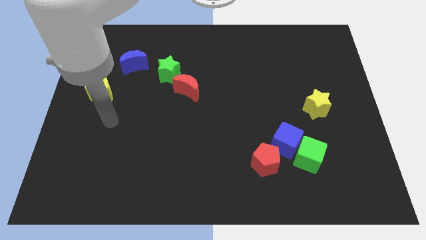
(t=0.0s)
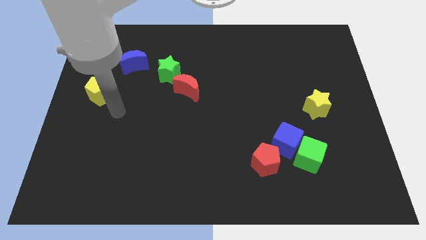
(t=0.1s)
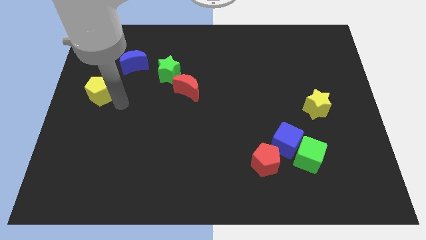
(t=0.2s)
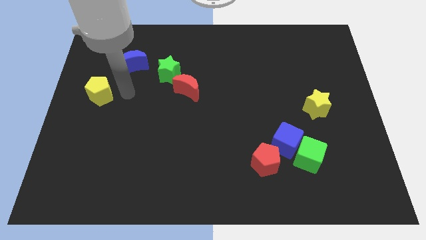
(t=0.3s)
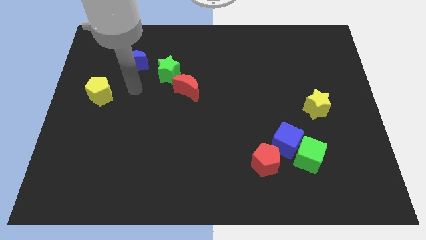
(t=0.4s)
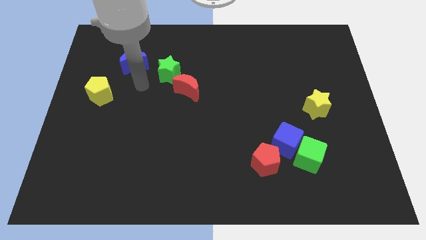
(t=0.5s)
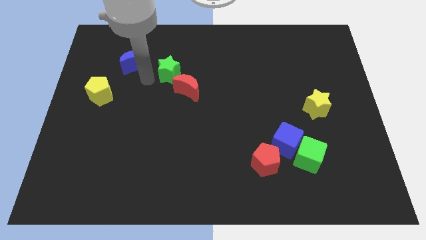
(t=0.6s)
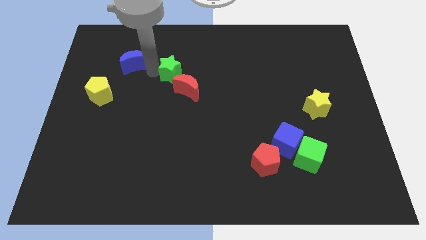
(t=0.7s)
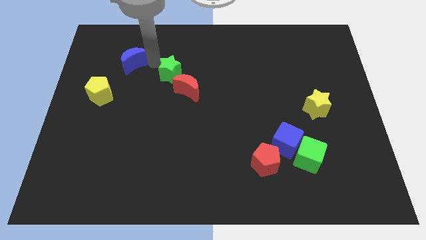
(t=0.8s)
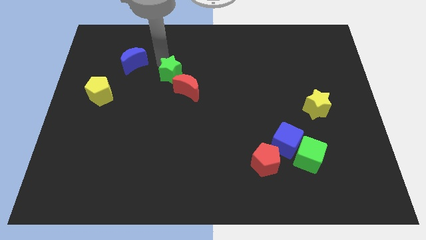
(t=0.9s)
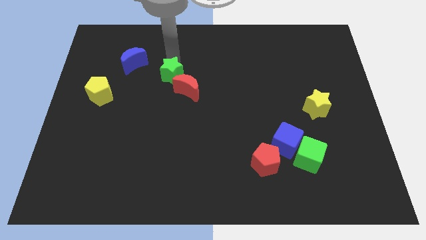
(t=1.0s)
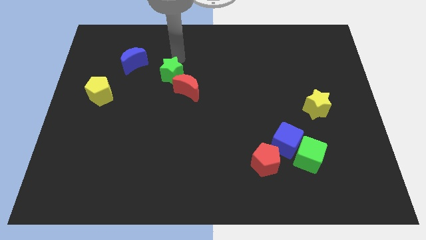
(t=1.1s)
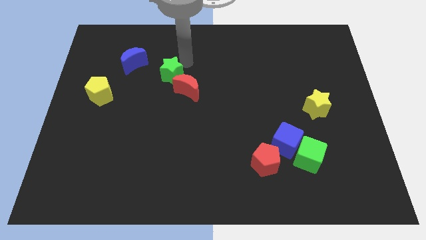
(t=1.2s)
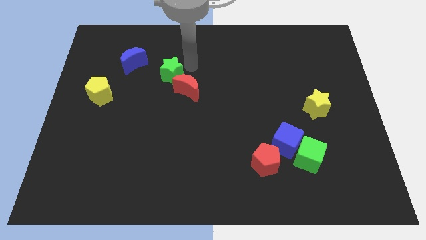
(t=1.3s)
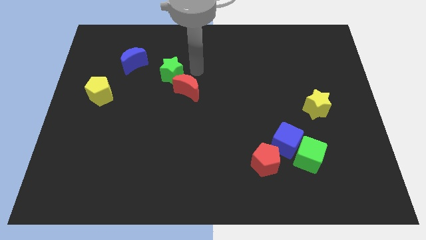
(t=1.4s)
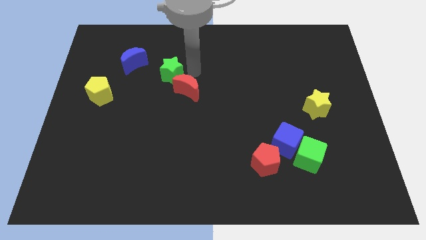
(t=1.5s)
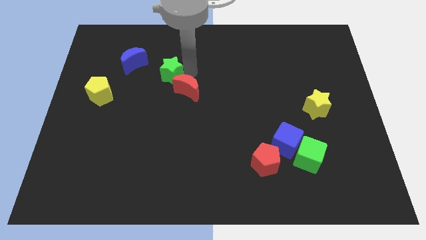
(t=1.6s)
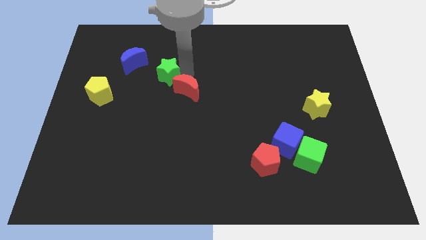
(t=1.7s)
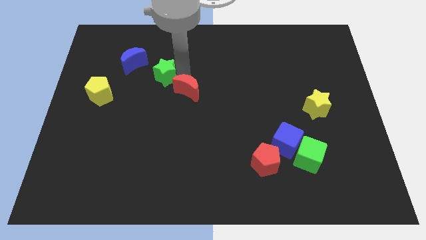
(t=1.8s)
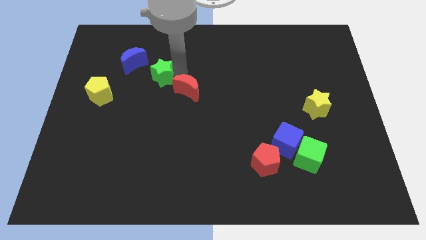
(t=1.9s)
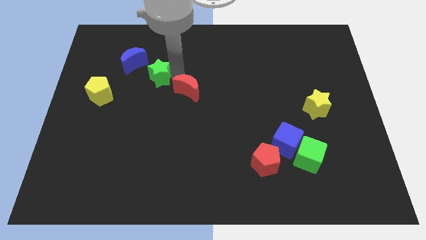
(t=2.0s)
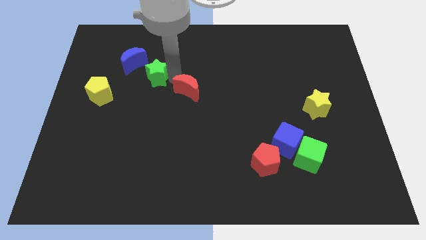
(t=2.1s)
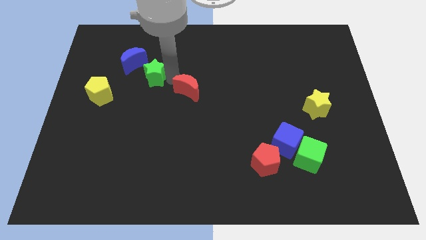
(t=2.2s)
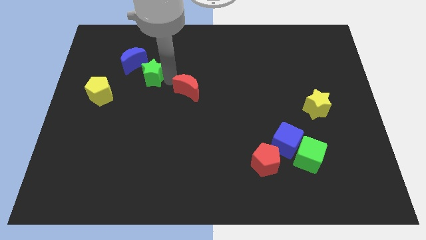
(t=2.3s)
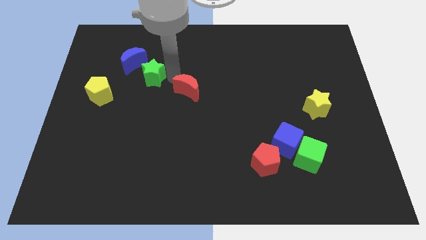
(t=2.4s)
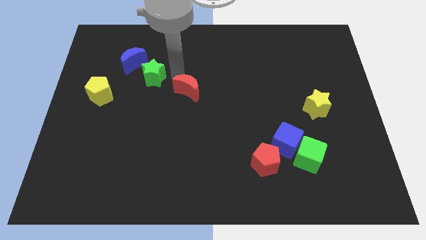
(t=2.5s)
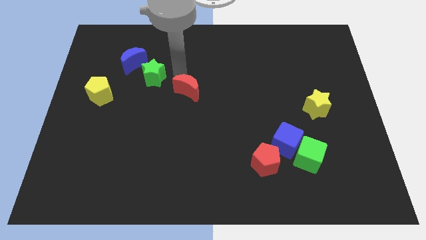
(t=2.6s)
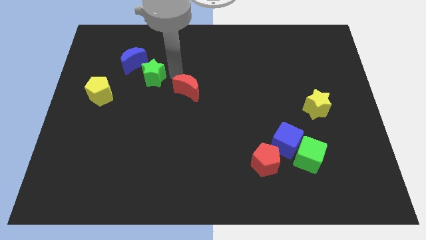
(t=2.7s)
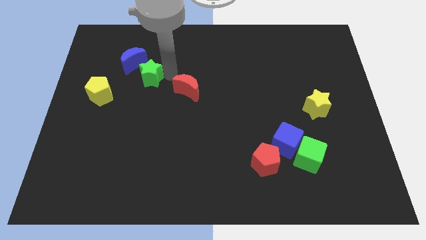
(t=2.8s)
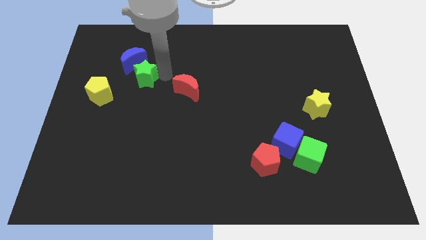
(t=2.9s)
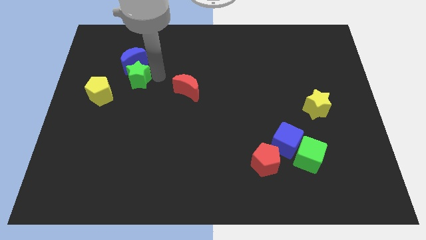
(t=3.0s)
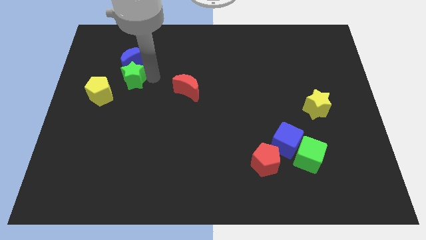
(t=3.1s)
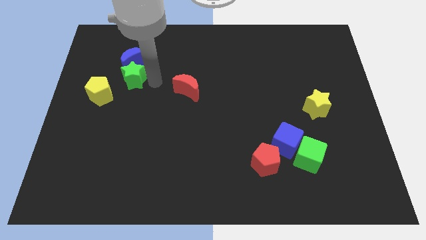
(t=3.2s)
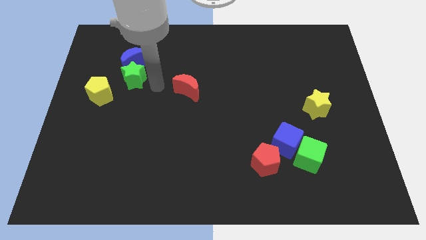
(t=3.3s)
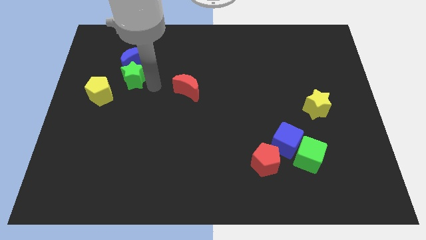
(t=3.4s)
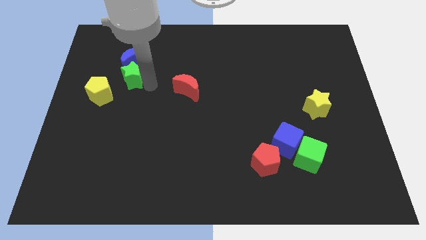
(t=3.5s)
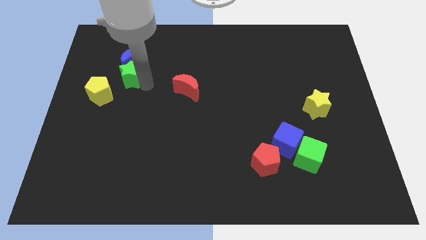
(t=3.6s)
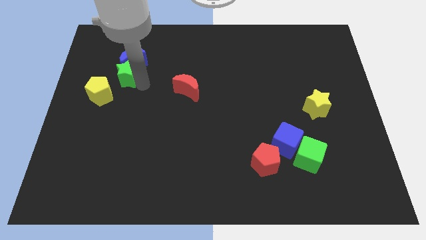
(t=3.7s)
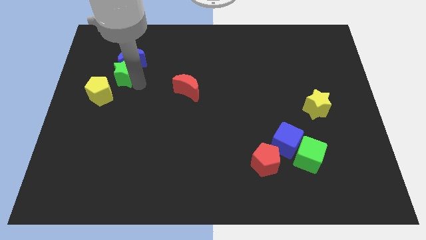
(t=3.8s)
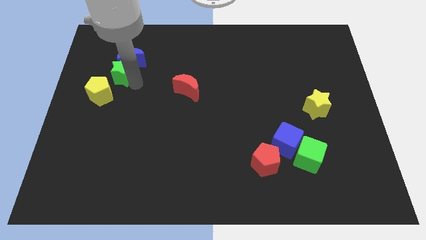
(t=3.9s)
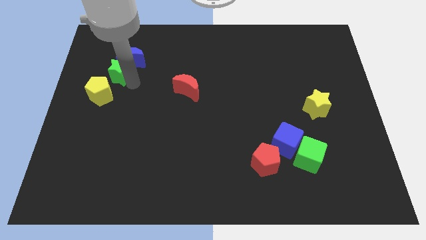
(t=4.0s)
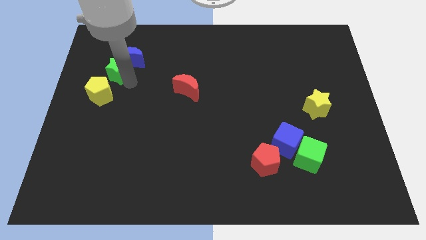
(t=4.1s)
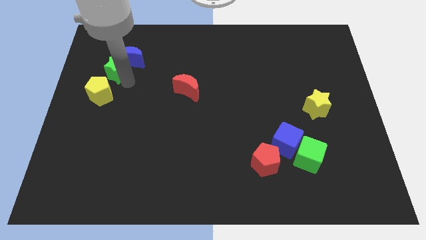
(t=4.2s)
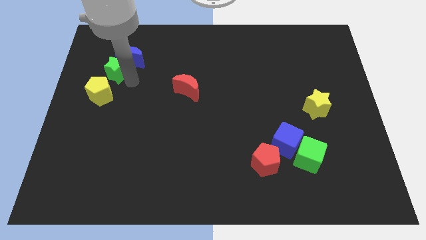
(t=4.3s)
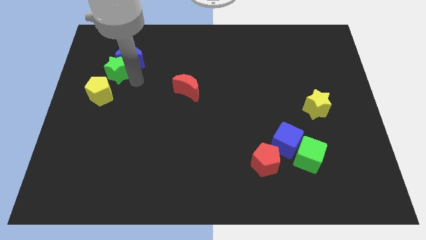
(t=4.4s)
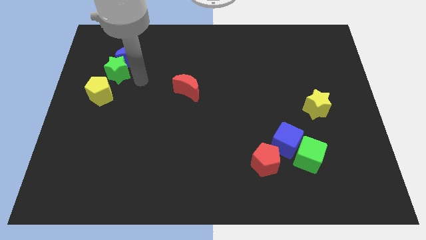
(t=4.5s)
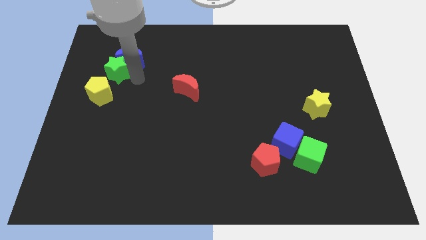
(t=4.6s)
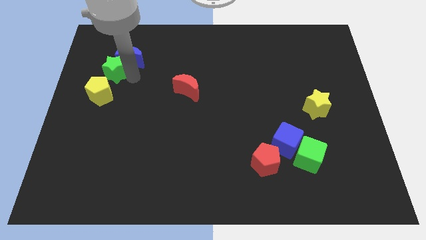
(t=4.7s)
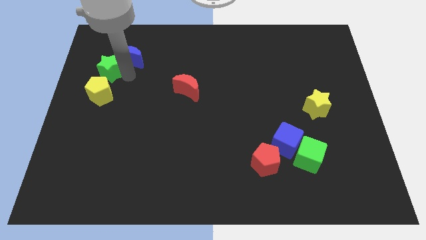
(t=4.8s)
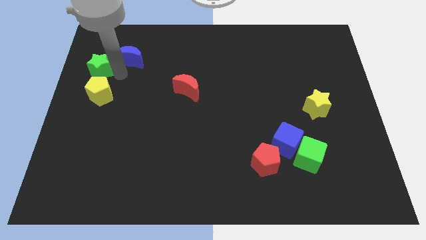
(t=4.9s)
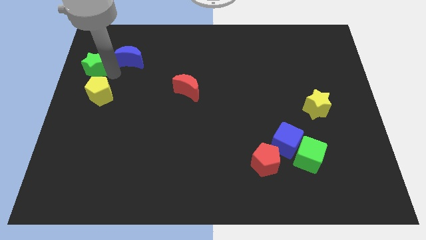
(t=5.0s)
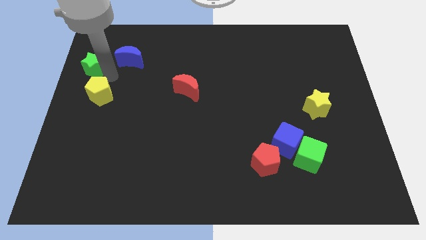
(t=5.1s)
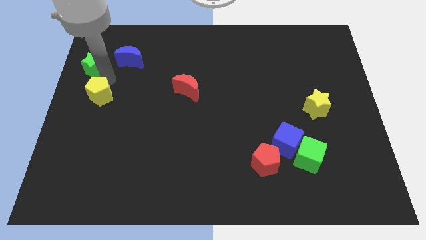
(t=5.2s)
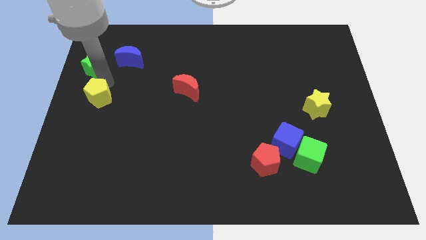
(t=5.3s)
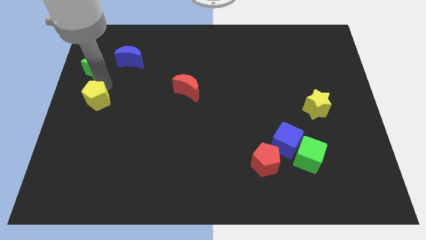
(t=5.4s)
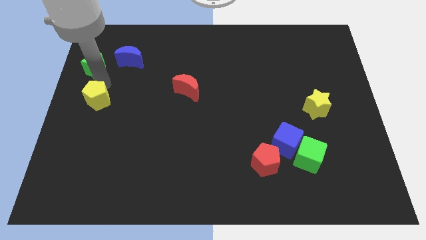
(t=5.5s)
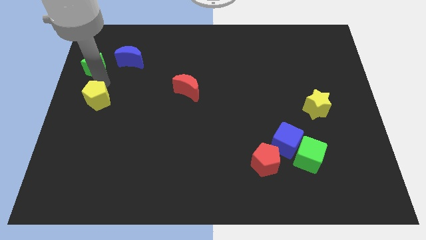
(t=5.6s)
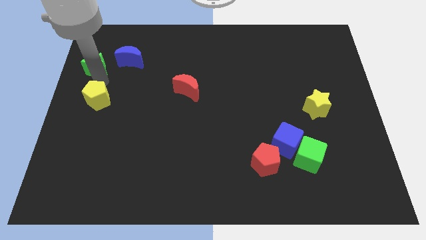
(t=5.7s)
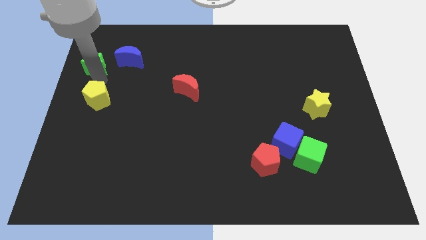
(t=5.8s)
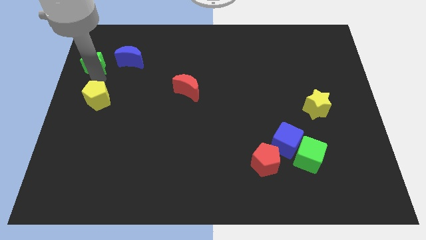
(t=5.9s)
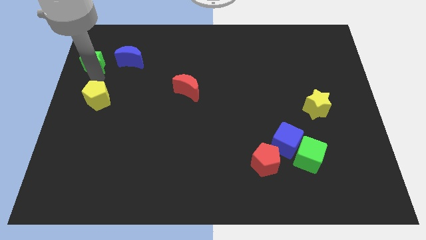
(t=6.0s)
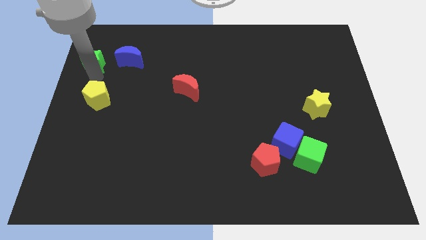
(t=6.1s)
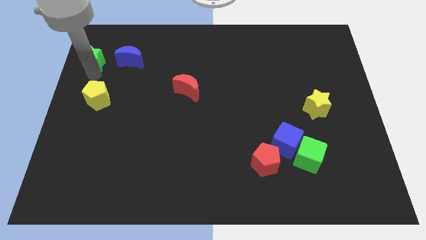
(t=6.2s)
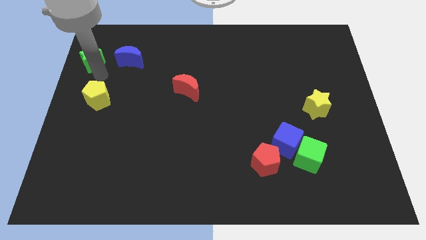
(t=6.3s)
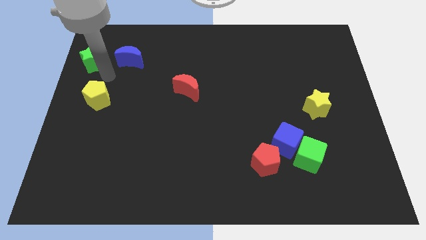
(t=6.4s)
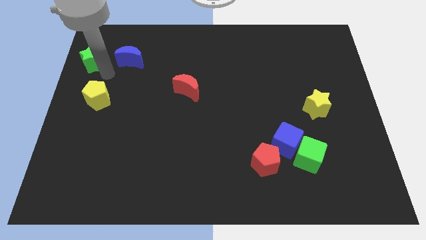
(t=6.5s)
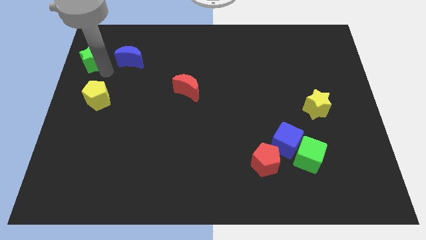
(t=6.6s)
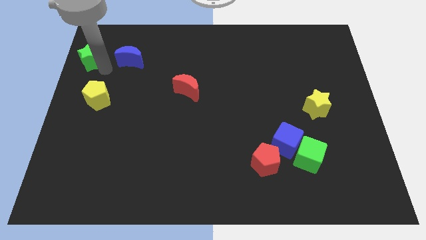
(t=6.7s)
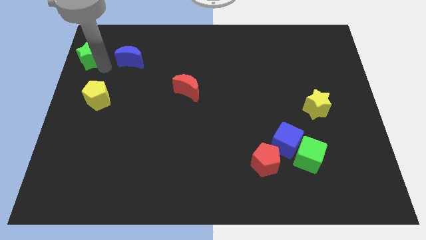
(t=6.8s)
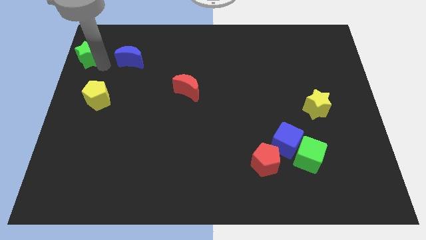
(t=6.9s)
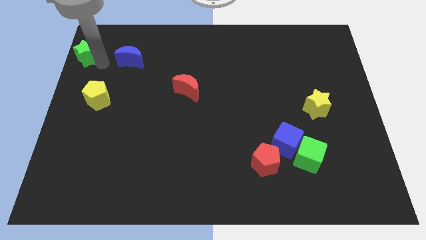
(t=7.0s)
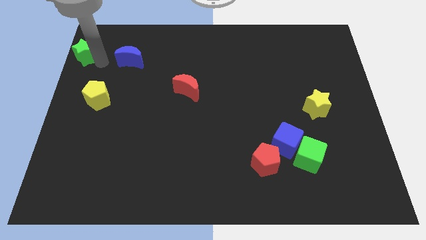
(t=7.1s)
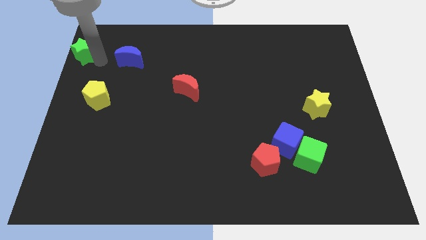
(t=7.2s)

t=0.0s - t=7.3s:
move the green star to the top left of the board
